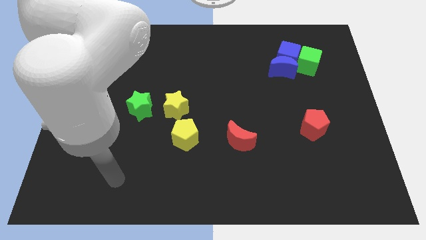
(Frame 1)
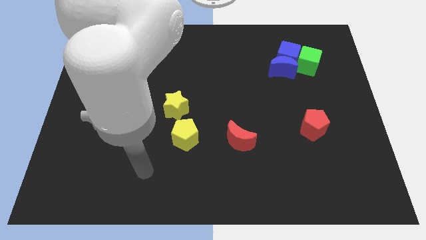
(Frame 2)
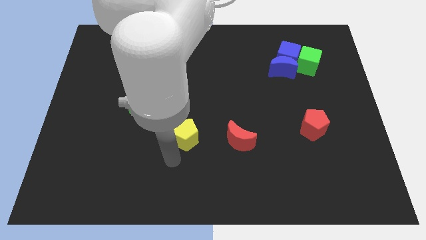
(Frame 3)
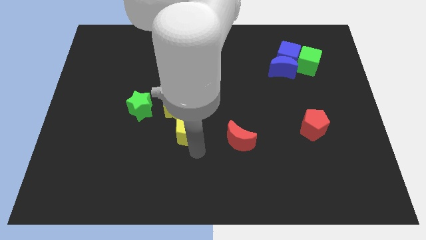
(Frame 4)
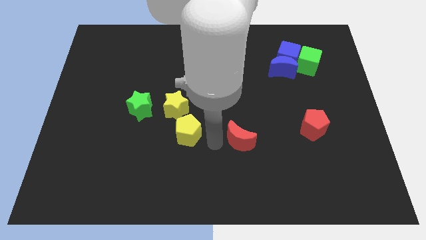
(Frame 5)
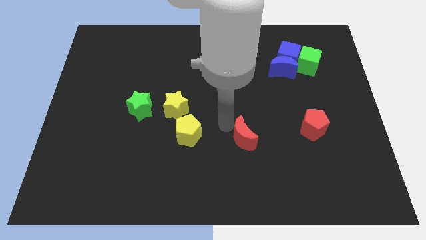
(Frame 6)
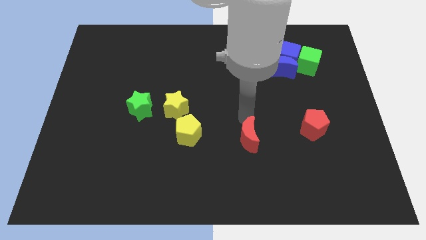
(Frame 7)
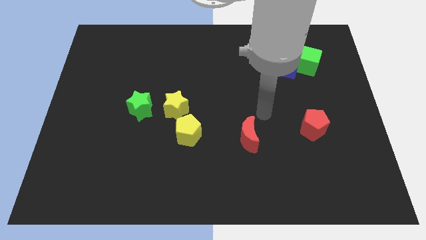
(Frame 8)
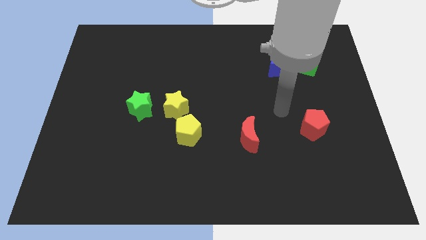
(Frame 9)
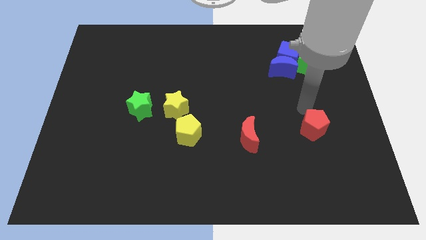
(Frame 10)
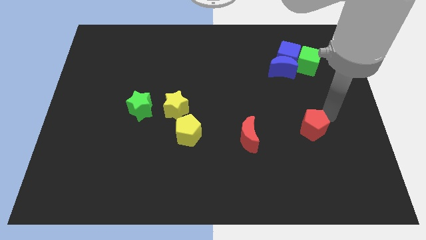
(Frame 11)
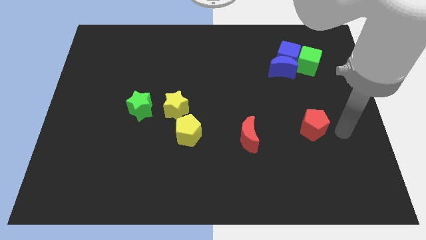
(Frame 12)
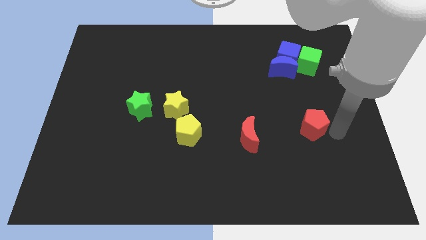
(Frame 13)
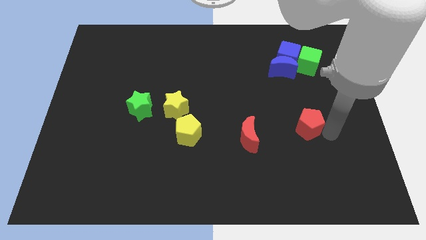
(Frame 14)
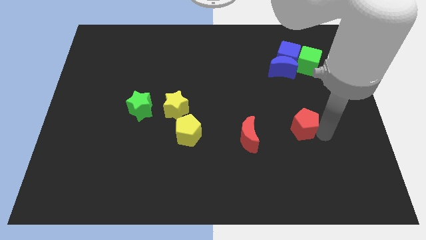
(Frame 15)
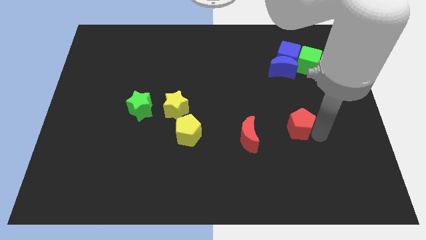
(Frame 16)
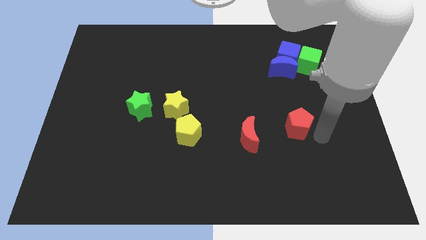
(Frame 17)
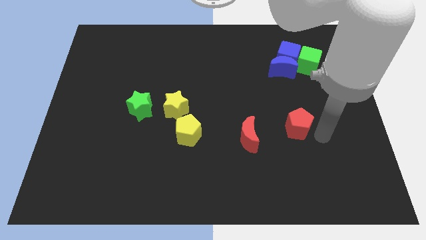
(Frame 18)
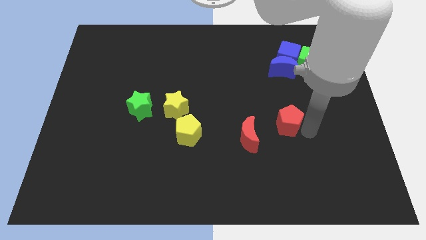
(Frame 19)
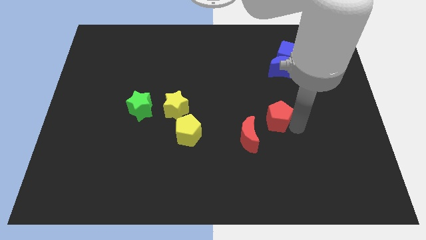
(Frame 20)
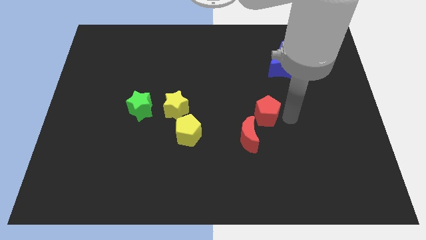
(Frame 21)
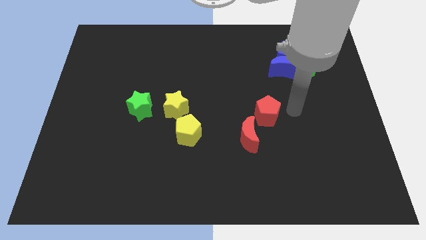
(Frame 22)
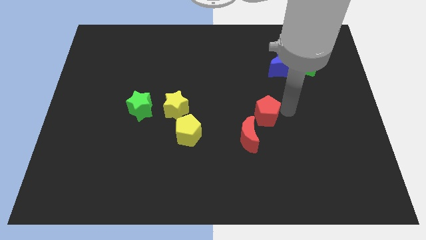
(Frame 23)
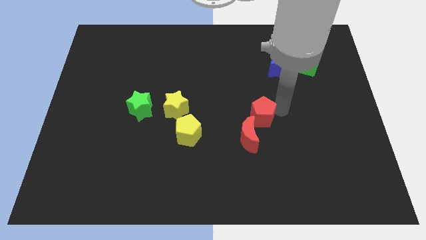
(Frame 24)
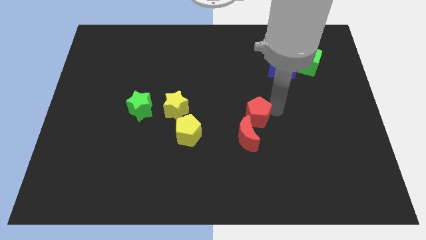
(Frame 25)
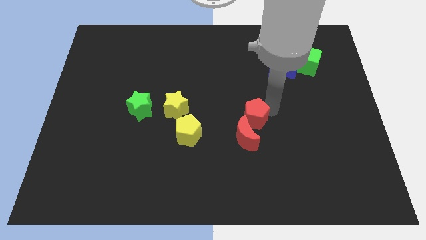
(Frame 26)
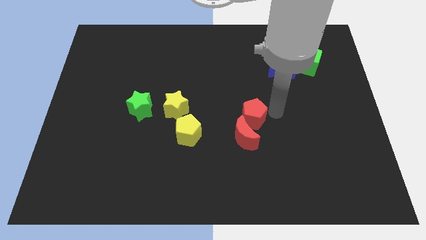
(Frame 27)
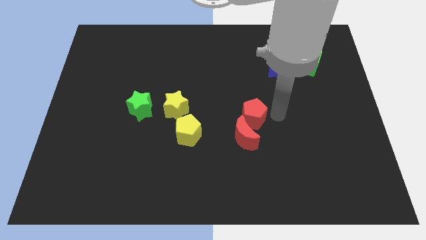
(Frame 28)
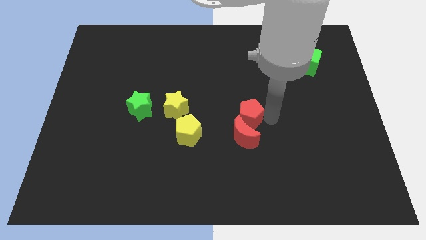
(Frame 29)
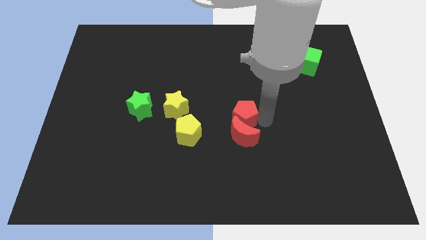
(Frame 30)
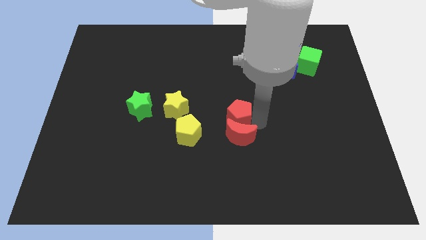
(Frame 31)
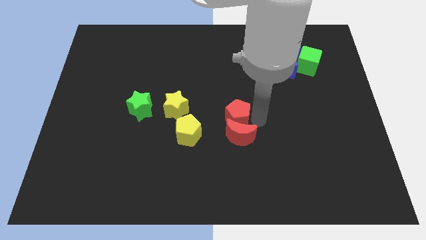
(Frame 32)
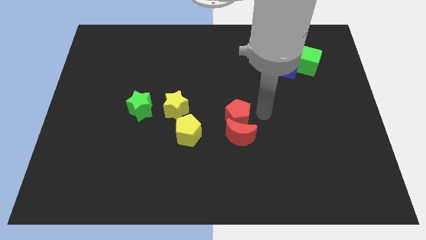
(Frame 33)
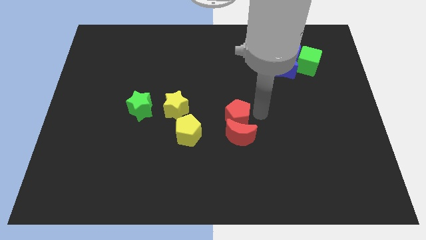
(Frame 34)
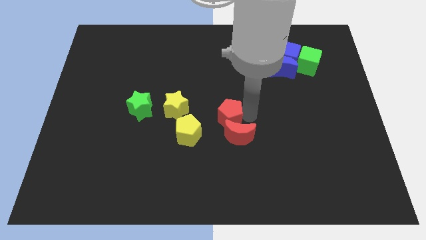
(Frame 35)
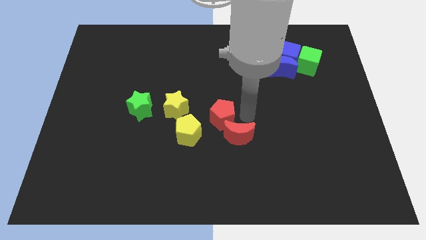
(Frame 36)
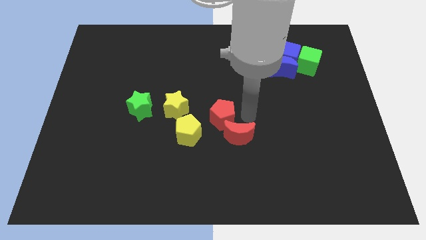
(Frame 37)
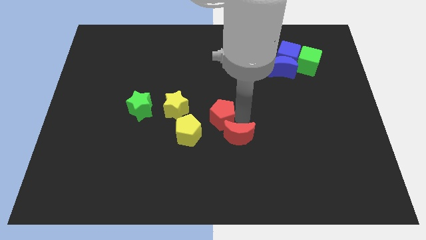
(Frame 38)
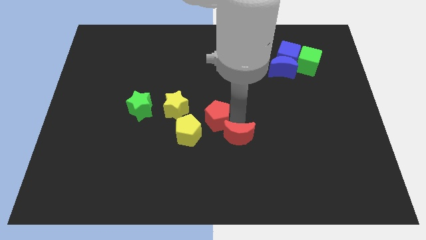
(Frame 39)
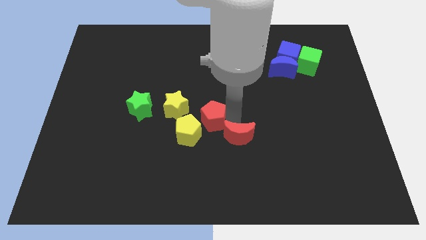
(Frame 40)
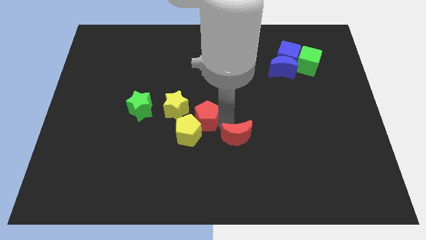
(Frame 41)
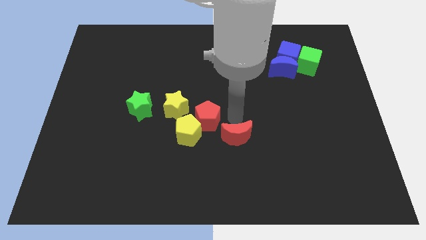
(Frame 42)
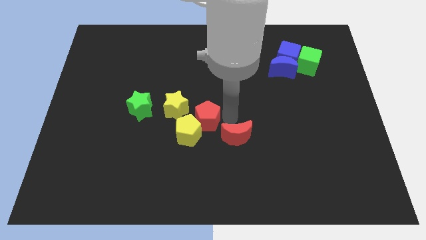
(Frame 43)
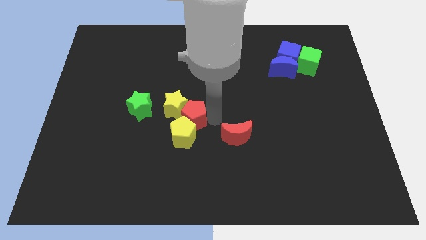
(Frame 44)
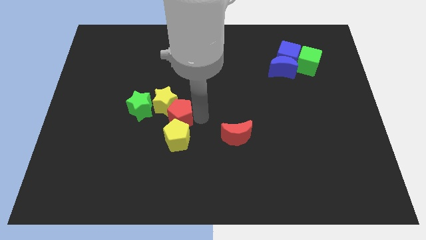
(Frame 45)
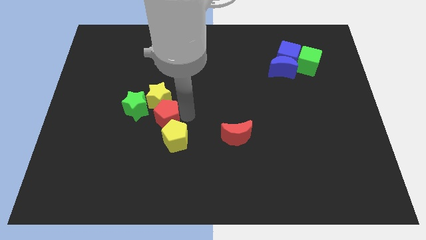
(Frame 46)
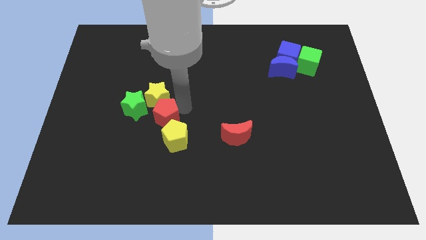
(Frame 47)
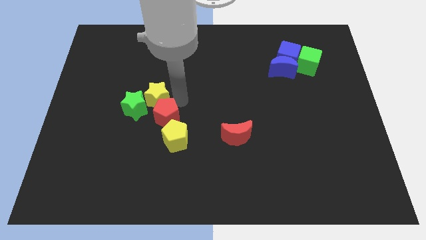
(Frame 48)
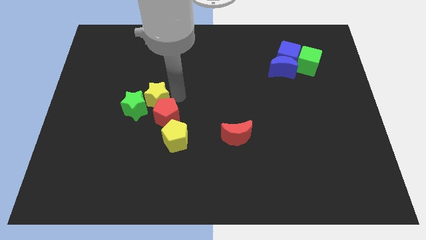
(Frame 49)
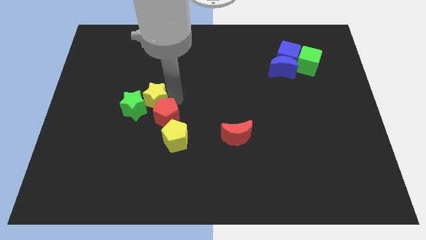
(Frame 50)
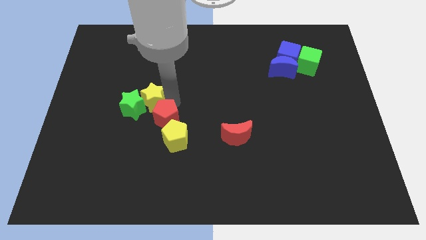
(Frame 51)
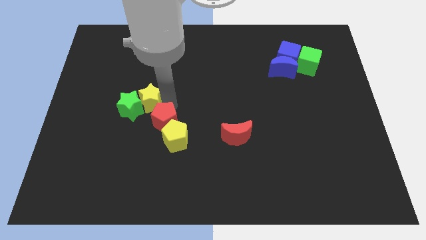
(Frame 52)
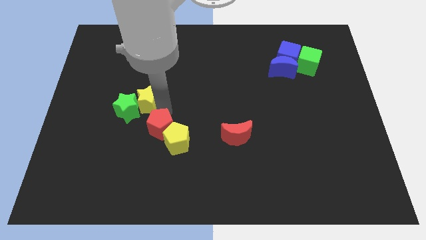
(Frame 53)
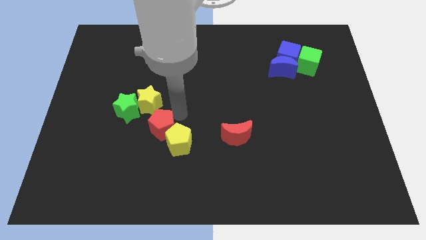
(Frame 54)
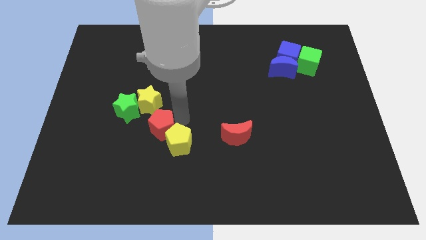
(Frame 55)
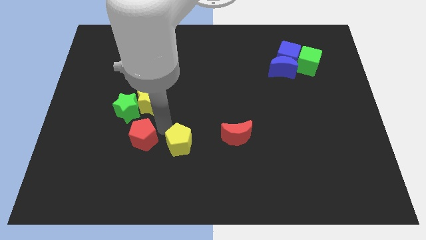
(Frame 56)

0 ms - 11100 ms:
slide the red pentagon to the bottom of the green star

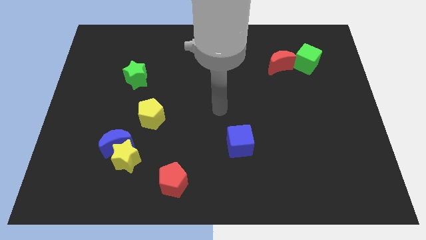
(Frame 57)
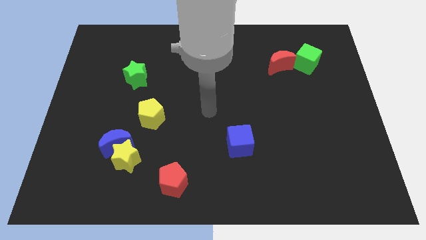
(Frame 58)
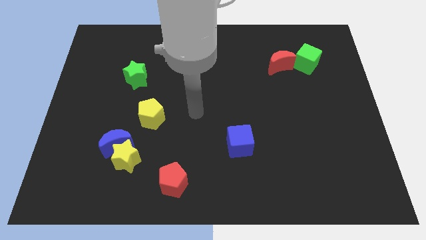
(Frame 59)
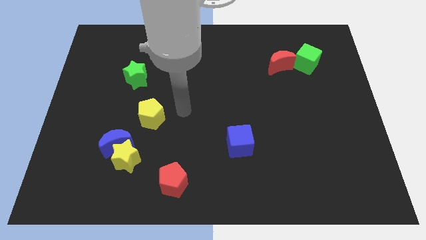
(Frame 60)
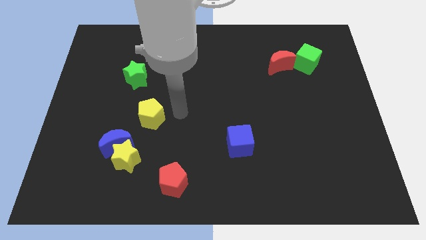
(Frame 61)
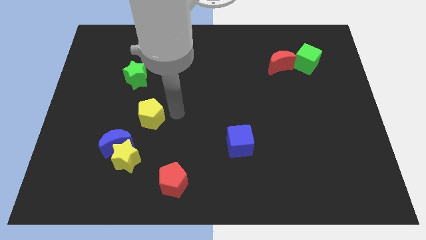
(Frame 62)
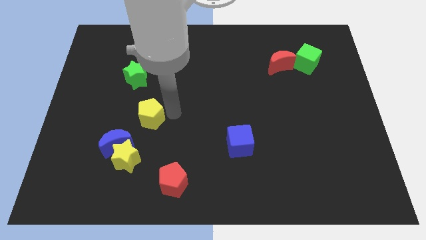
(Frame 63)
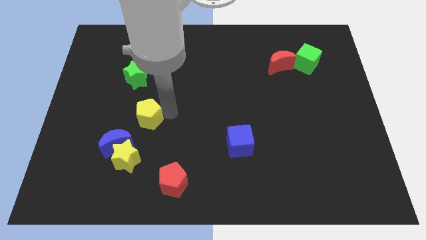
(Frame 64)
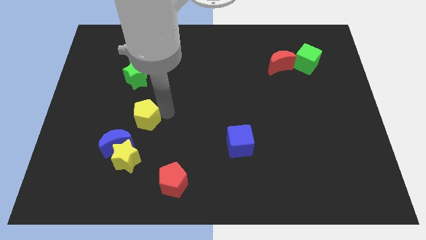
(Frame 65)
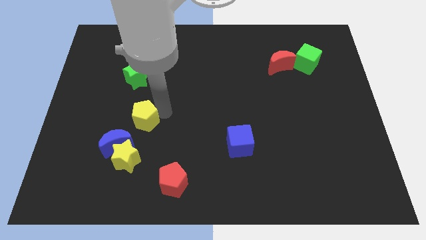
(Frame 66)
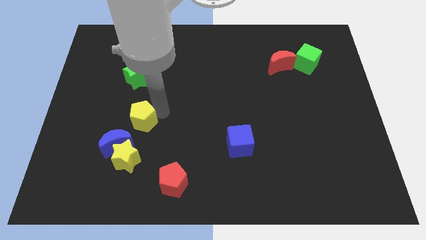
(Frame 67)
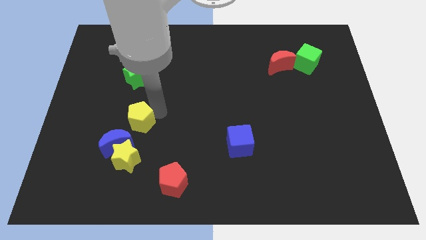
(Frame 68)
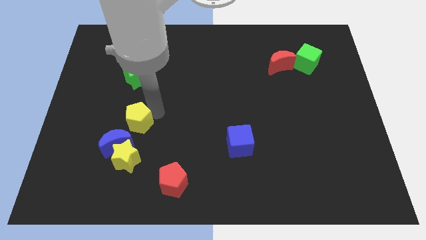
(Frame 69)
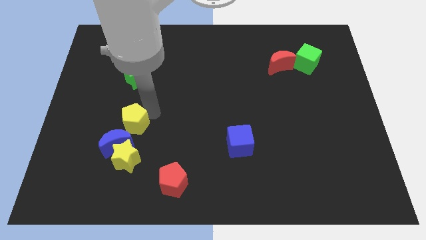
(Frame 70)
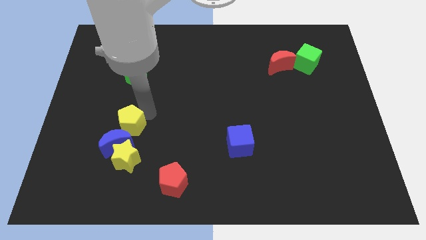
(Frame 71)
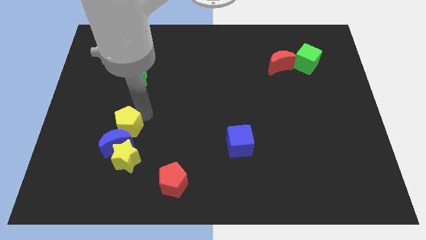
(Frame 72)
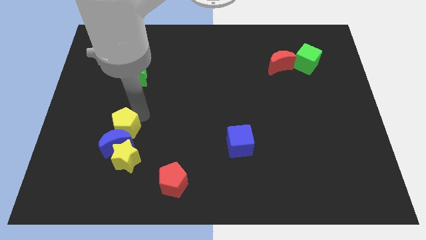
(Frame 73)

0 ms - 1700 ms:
slide the yellow pentagon to the top left of the blue moon
